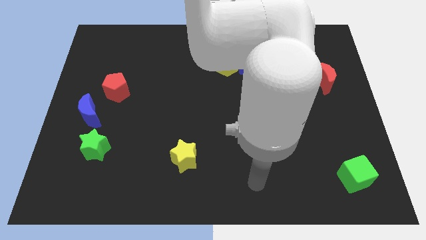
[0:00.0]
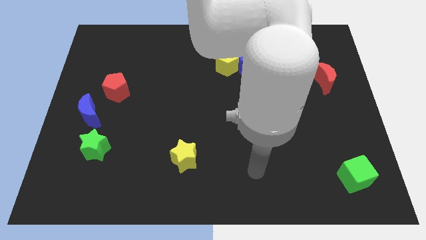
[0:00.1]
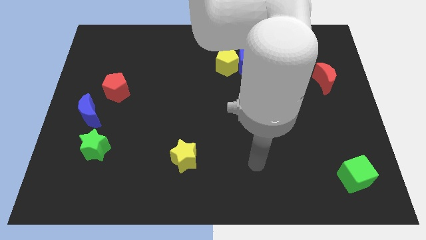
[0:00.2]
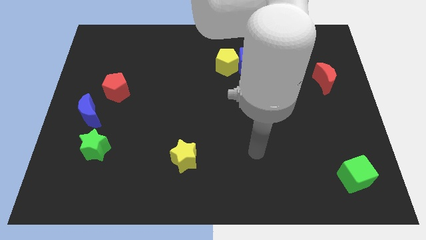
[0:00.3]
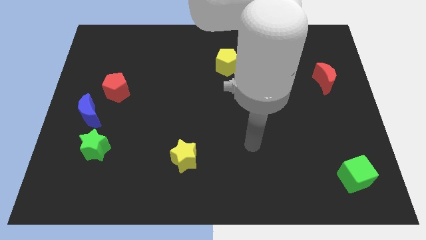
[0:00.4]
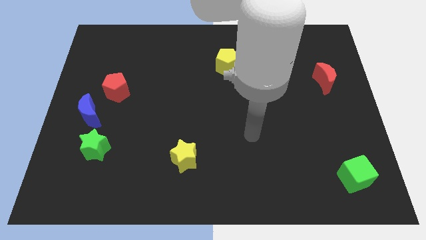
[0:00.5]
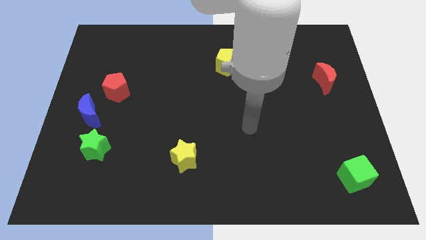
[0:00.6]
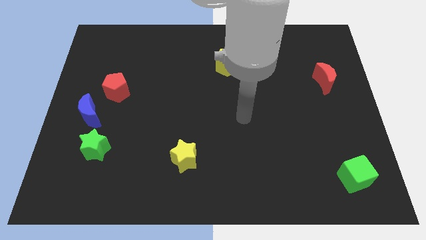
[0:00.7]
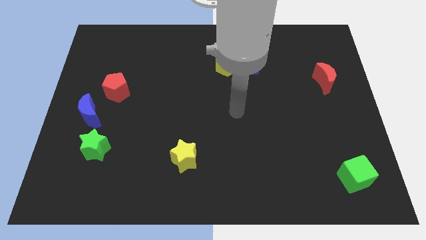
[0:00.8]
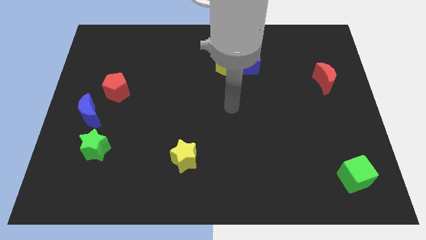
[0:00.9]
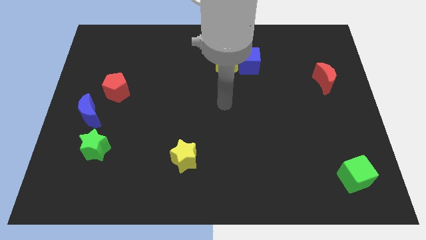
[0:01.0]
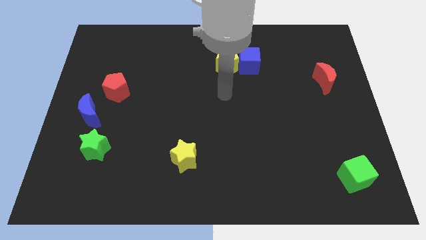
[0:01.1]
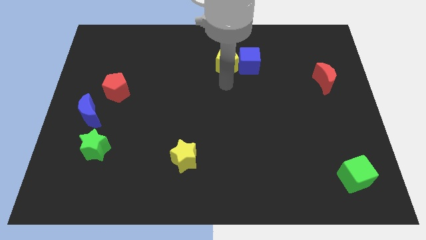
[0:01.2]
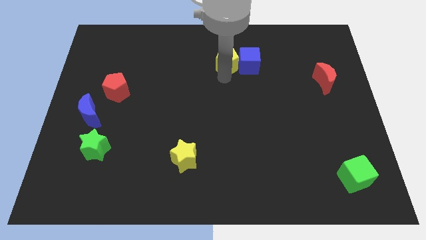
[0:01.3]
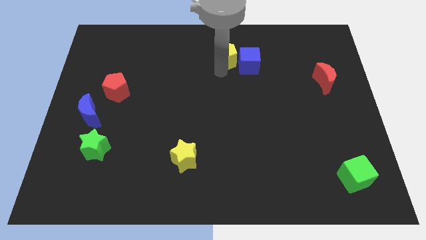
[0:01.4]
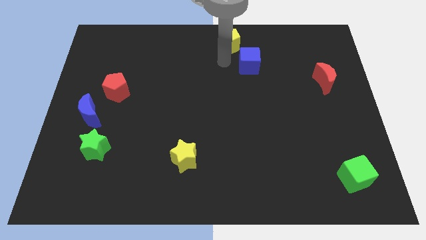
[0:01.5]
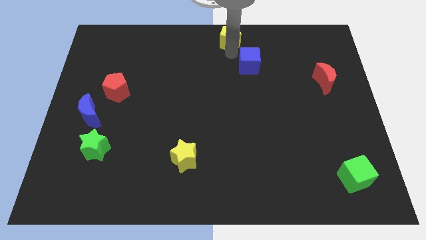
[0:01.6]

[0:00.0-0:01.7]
separate the blue cube from the yellow pentagon

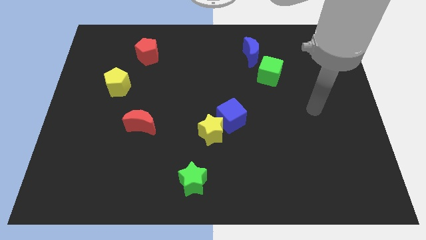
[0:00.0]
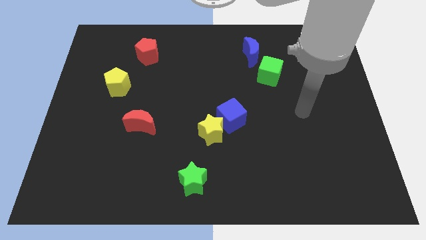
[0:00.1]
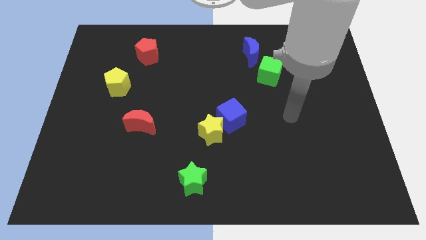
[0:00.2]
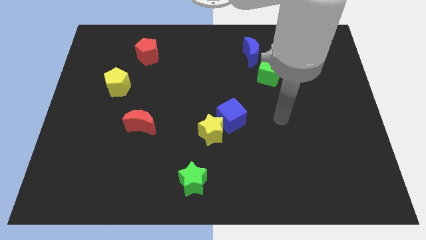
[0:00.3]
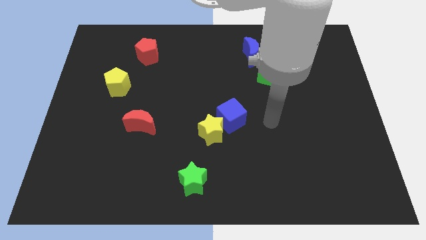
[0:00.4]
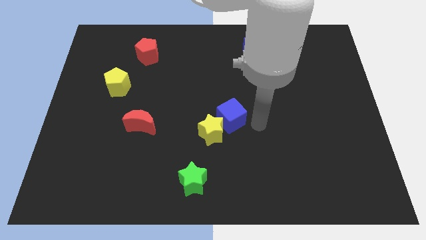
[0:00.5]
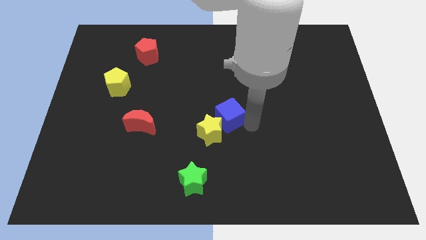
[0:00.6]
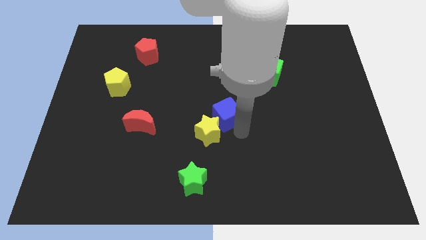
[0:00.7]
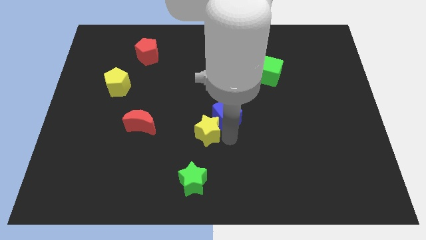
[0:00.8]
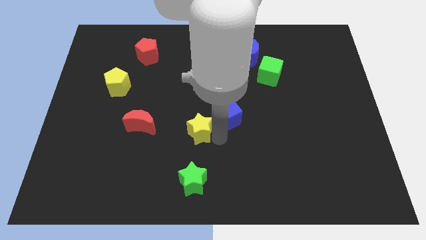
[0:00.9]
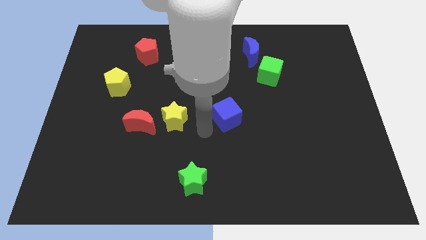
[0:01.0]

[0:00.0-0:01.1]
separate the blue cube from the yellow star

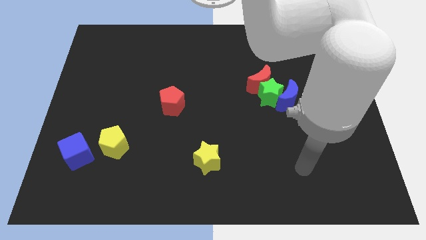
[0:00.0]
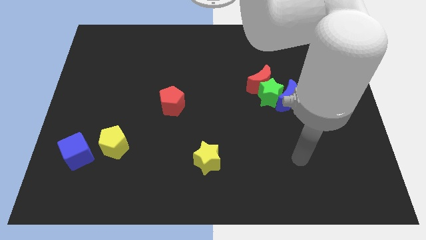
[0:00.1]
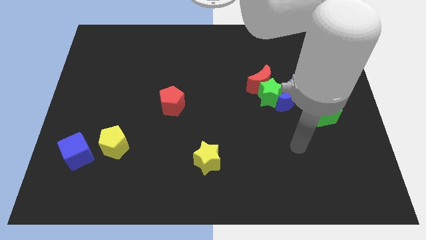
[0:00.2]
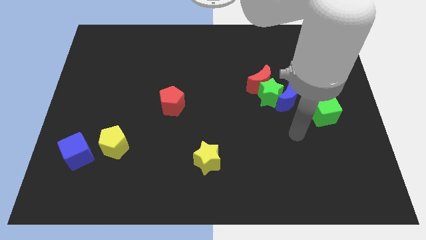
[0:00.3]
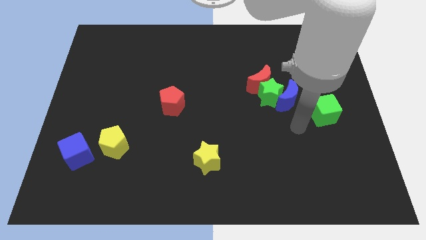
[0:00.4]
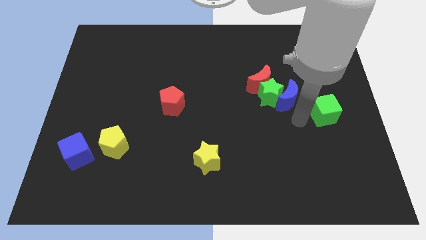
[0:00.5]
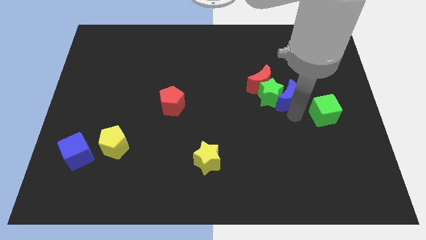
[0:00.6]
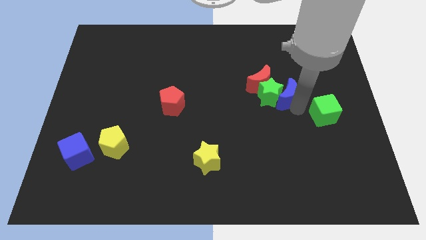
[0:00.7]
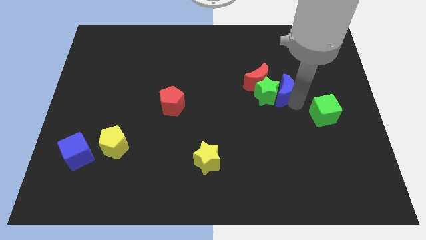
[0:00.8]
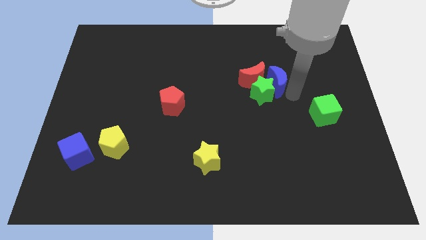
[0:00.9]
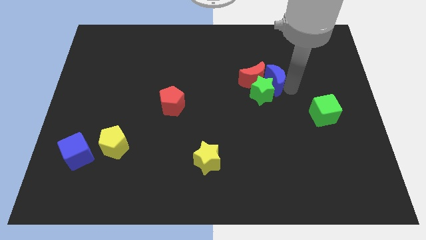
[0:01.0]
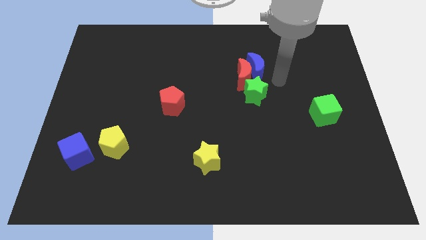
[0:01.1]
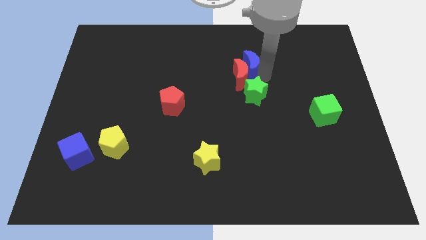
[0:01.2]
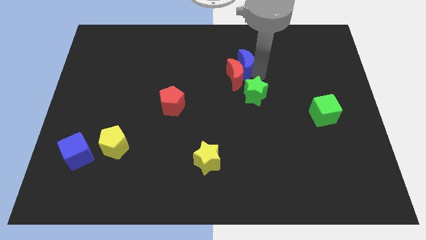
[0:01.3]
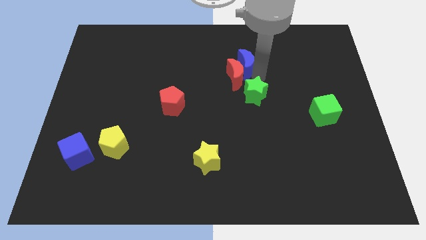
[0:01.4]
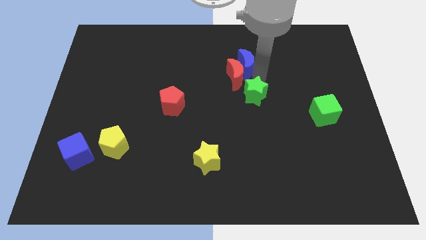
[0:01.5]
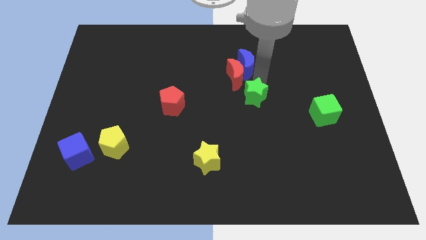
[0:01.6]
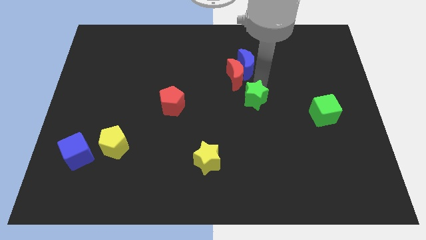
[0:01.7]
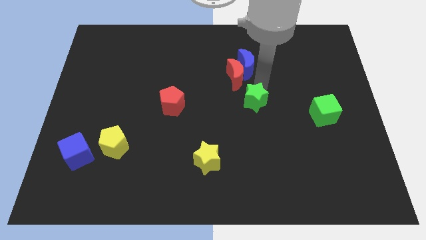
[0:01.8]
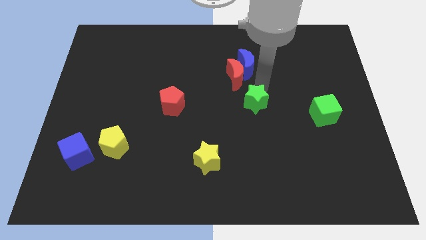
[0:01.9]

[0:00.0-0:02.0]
move the green star away from the blue moon and red moon

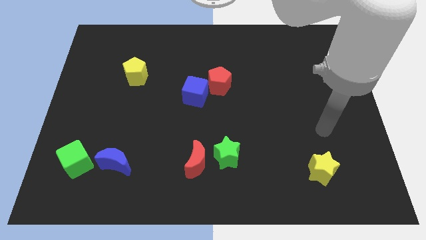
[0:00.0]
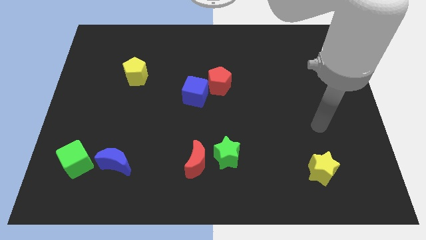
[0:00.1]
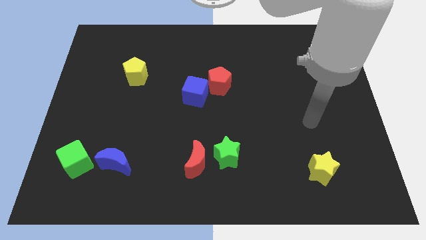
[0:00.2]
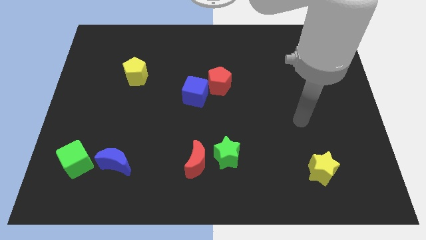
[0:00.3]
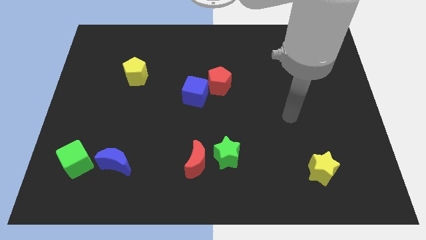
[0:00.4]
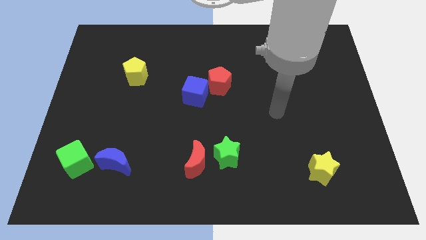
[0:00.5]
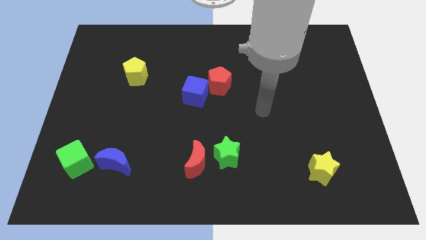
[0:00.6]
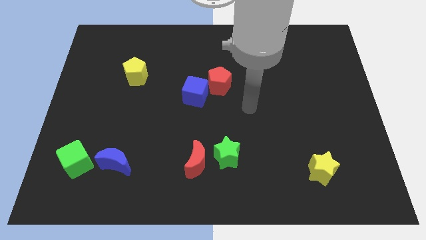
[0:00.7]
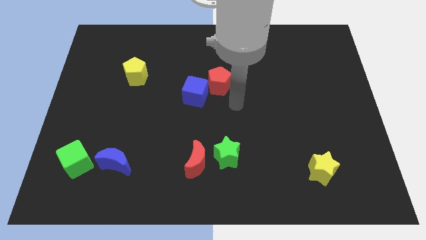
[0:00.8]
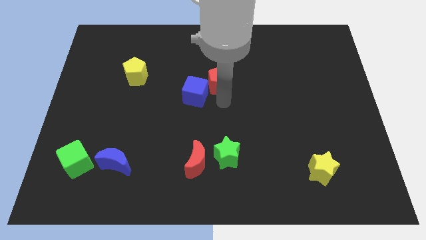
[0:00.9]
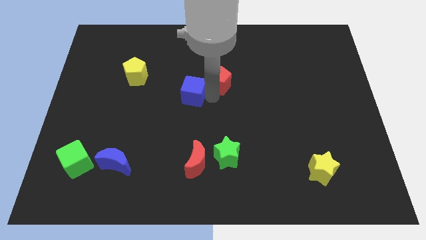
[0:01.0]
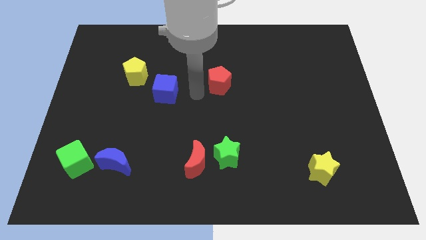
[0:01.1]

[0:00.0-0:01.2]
pull the red pentagon apart from the blue cube

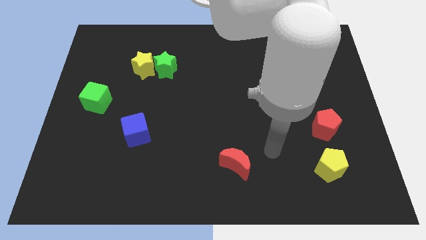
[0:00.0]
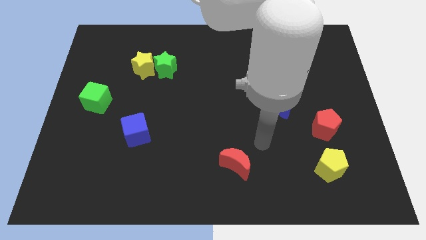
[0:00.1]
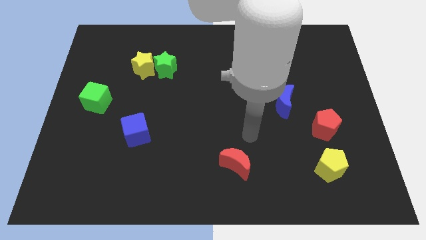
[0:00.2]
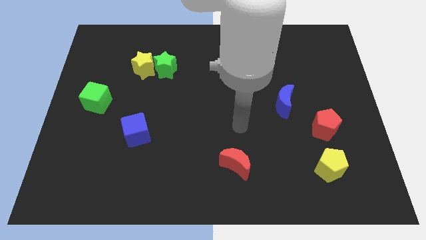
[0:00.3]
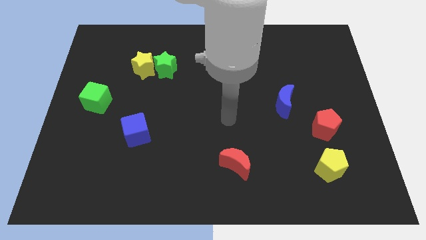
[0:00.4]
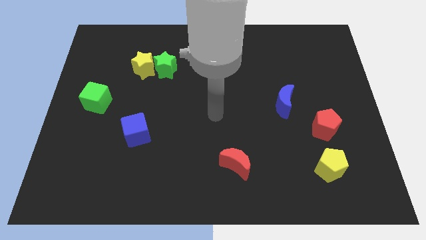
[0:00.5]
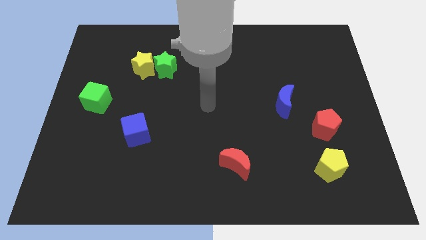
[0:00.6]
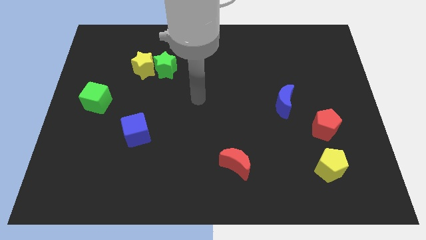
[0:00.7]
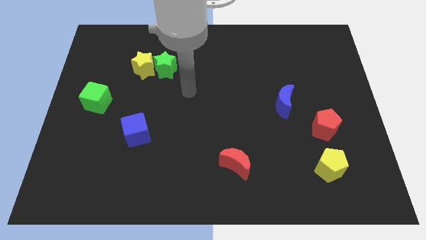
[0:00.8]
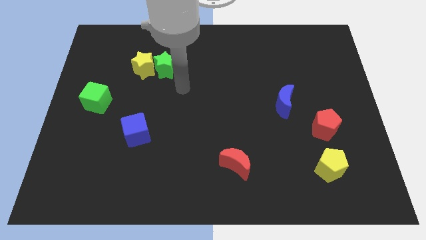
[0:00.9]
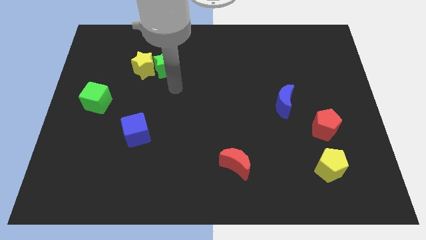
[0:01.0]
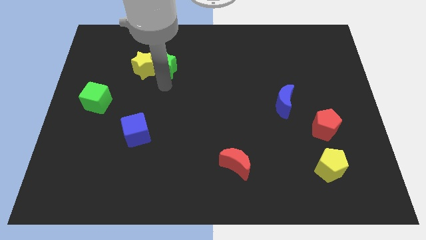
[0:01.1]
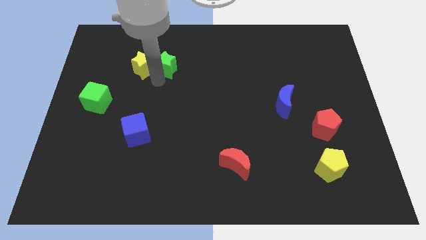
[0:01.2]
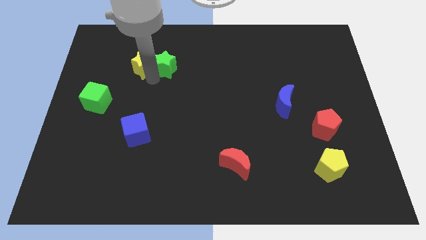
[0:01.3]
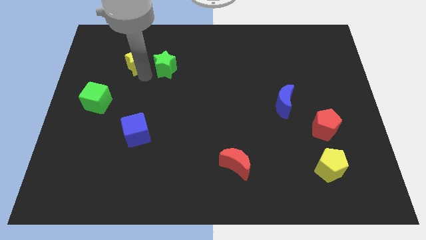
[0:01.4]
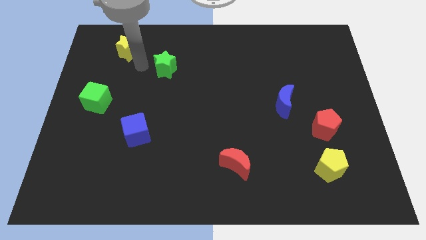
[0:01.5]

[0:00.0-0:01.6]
pull the green star apart from the yellow star

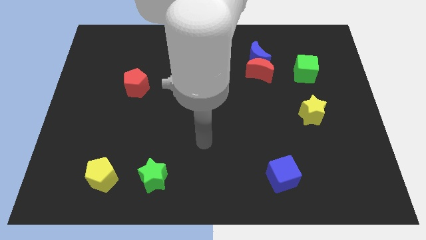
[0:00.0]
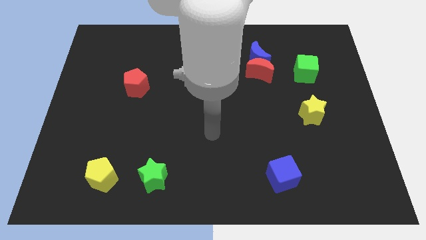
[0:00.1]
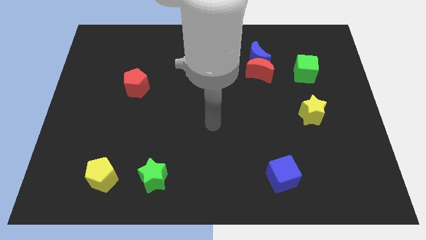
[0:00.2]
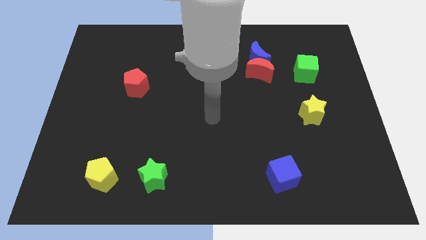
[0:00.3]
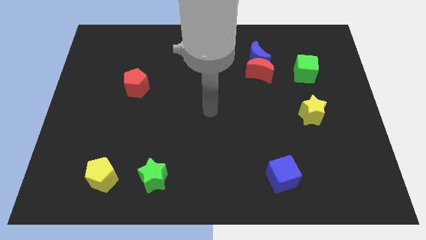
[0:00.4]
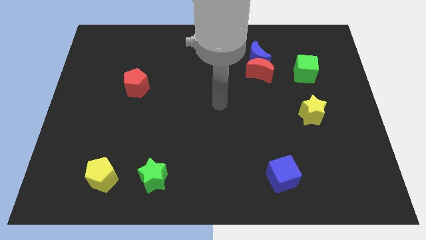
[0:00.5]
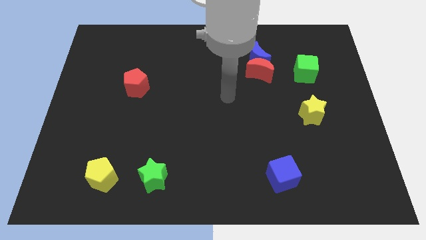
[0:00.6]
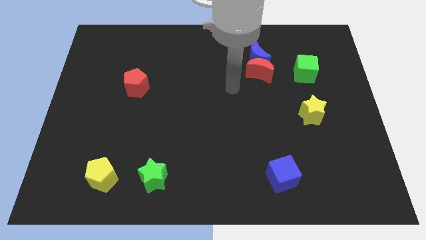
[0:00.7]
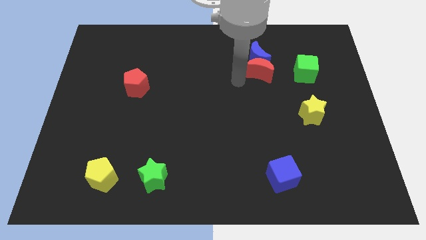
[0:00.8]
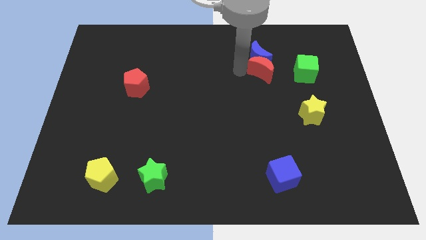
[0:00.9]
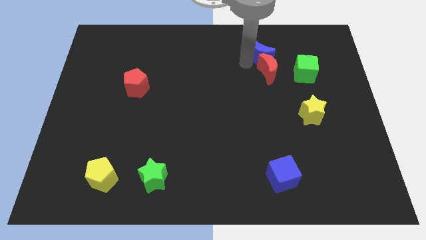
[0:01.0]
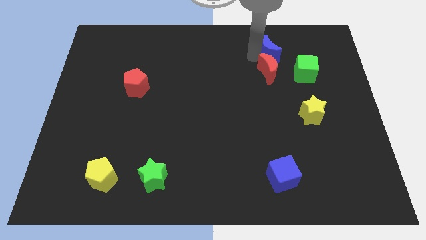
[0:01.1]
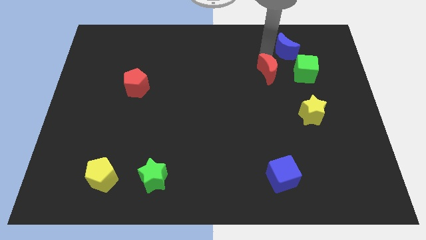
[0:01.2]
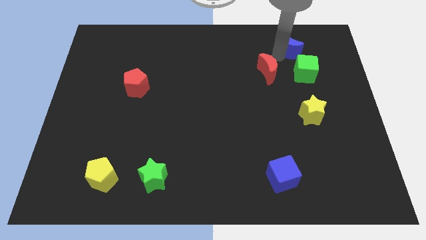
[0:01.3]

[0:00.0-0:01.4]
separate the red moon from the blue moon

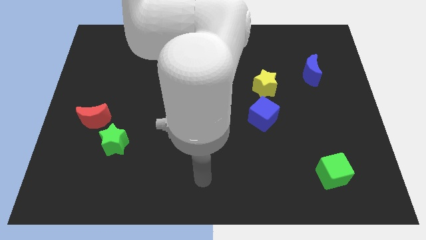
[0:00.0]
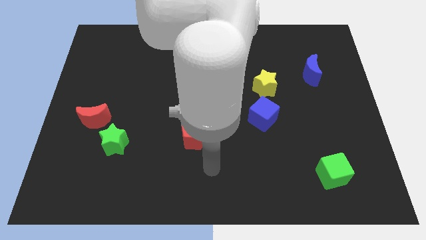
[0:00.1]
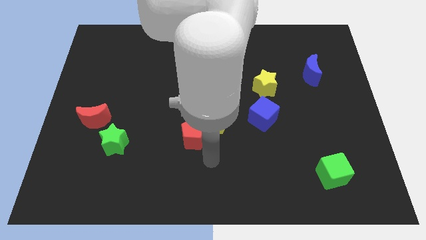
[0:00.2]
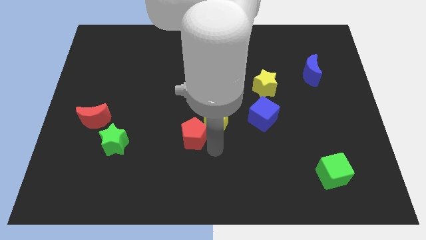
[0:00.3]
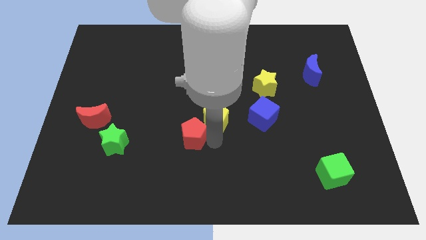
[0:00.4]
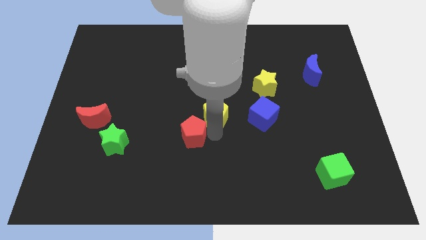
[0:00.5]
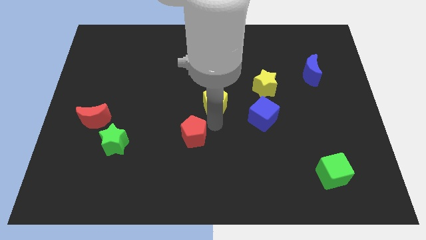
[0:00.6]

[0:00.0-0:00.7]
move the red pentagon away from the yellow pentagon
